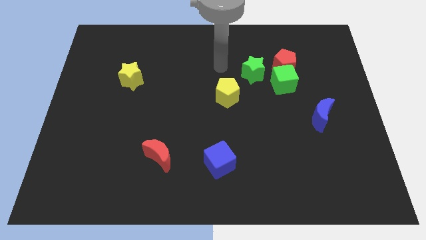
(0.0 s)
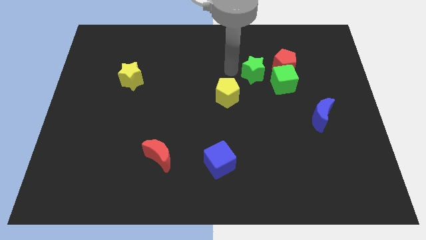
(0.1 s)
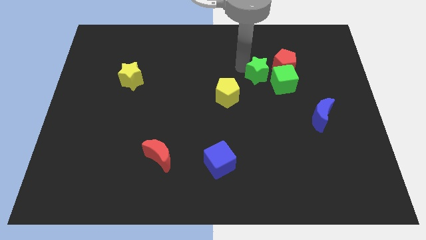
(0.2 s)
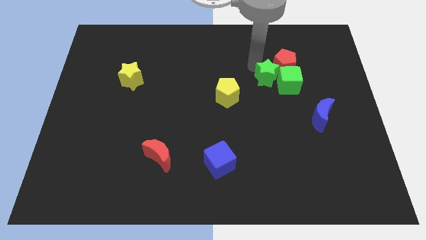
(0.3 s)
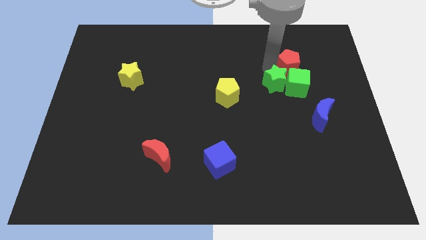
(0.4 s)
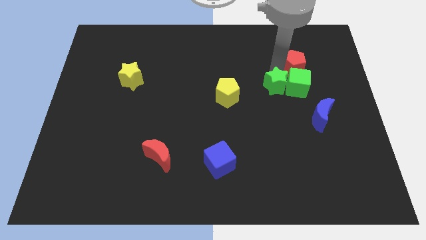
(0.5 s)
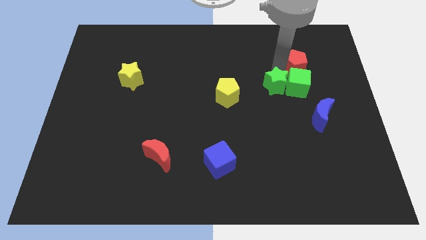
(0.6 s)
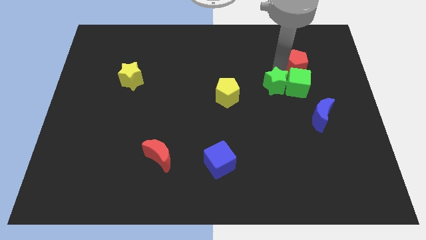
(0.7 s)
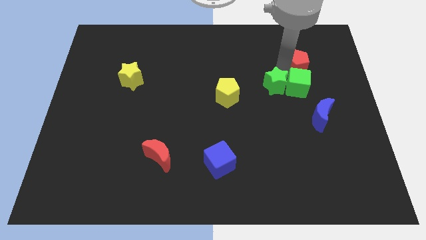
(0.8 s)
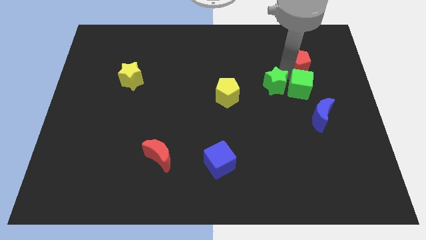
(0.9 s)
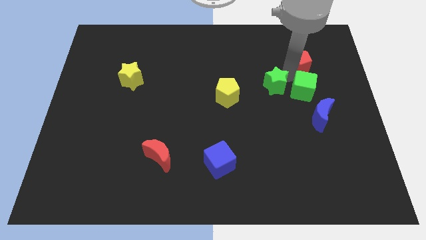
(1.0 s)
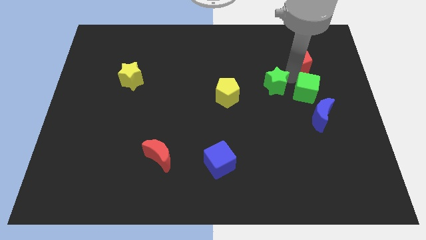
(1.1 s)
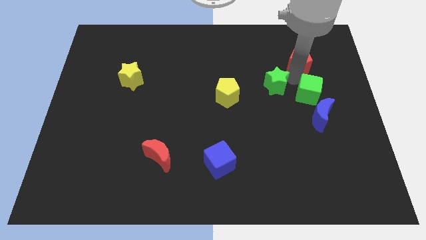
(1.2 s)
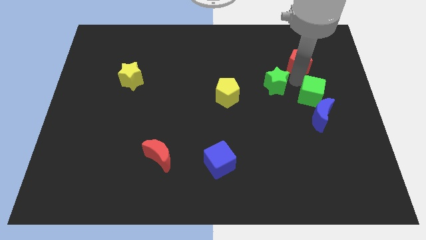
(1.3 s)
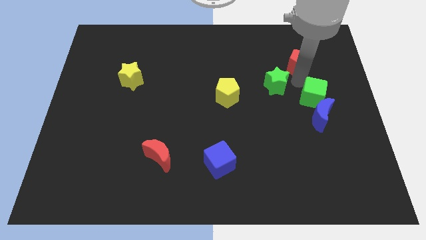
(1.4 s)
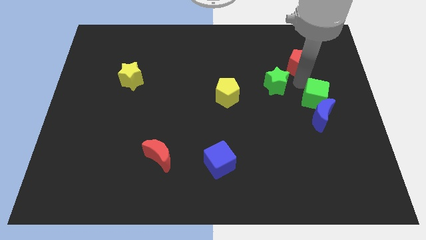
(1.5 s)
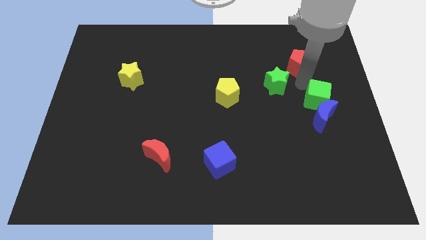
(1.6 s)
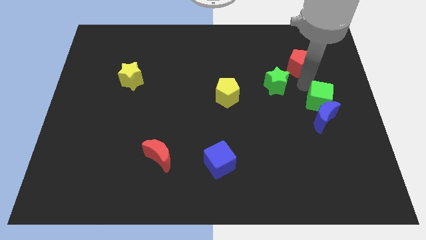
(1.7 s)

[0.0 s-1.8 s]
separate the green cube from the red pentagon and green star

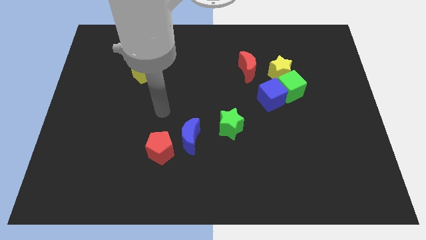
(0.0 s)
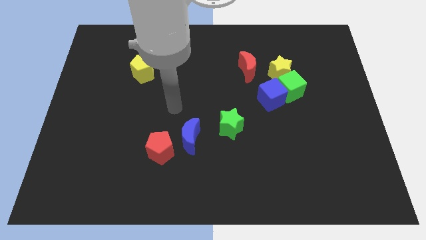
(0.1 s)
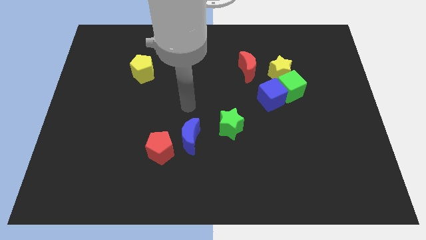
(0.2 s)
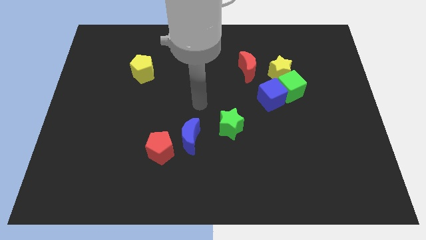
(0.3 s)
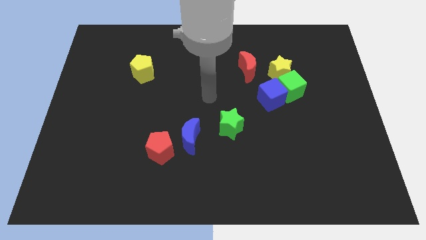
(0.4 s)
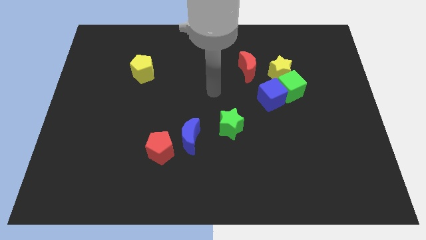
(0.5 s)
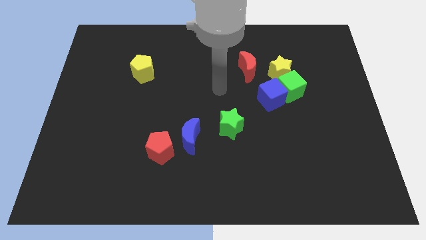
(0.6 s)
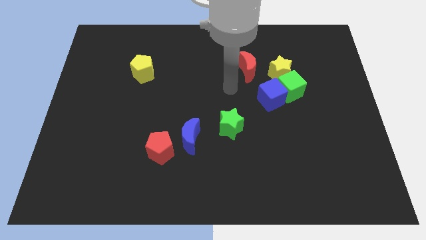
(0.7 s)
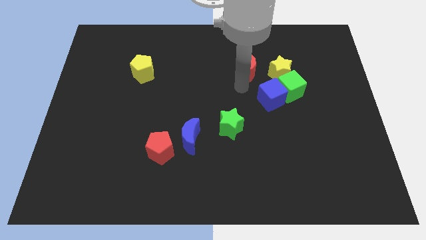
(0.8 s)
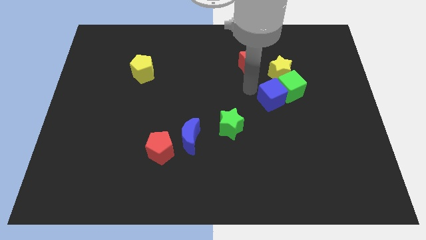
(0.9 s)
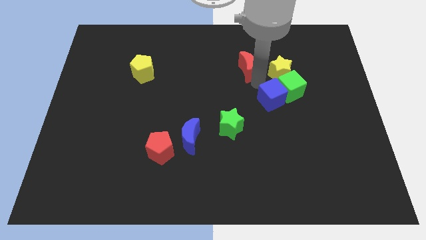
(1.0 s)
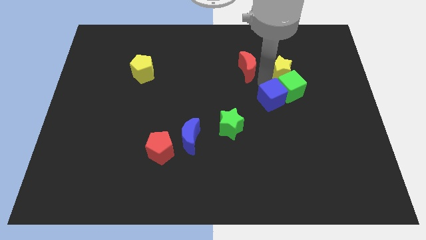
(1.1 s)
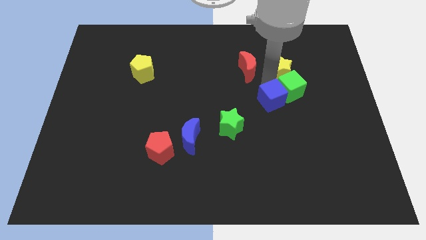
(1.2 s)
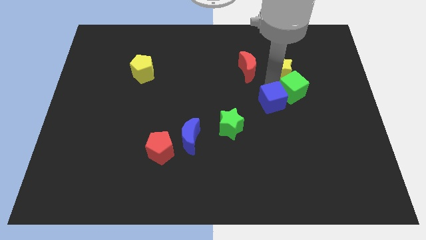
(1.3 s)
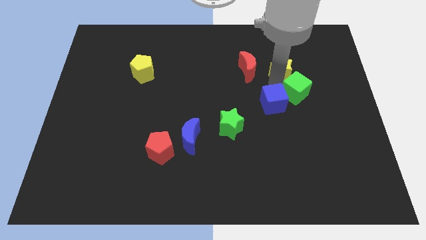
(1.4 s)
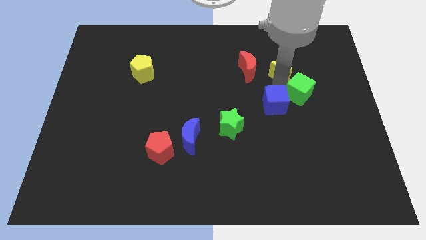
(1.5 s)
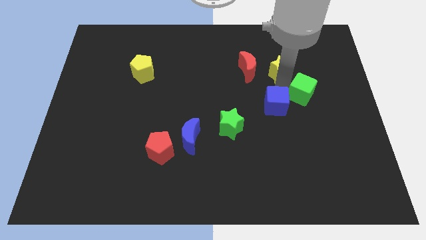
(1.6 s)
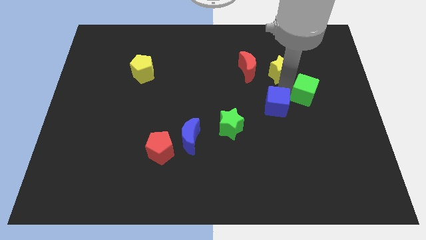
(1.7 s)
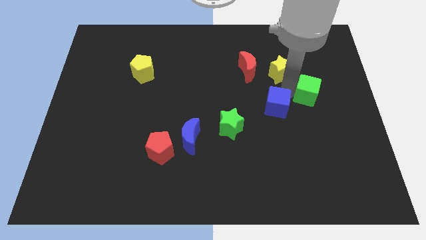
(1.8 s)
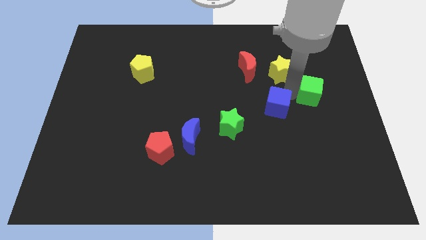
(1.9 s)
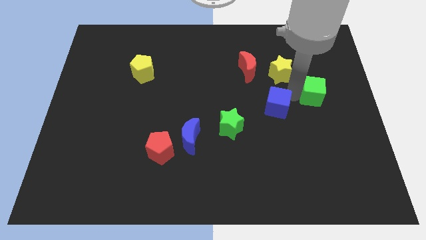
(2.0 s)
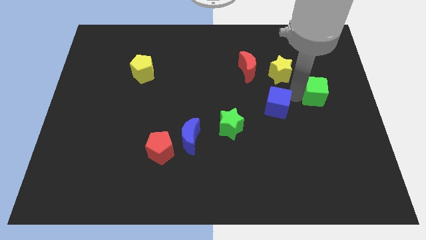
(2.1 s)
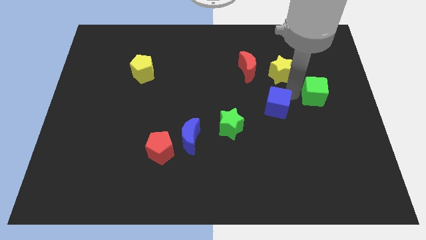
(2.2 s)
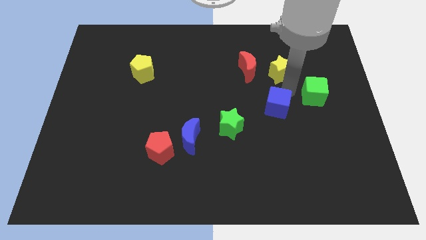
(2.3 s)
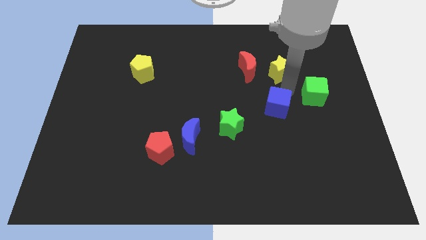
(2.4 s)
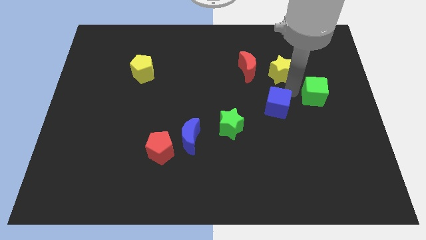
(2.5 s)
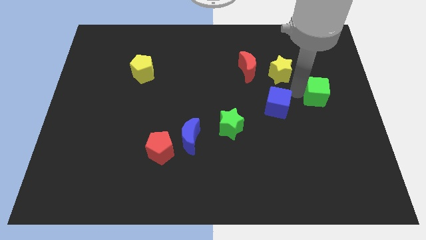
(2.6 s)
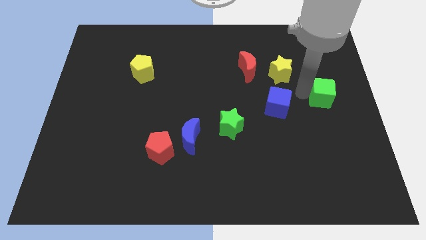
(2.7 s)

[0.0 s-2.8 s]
pull the green cube apart from the blue cube and yellow star

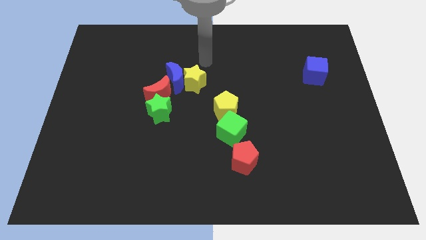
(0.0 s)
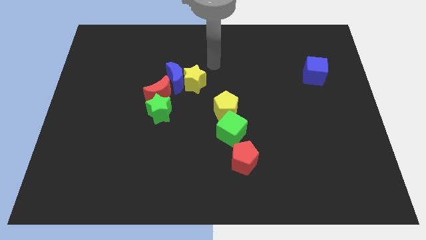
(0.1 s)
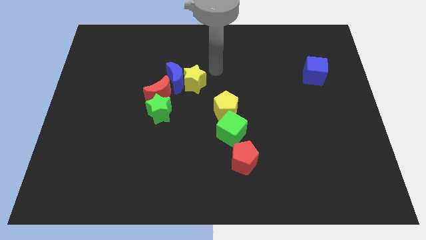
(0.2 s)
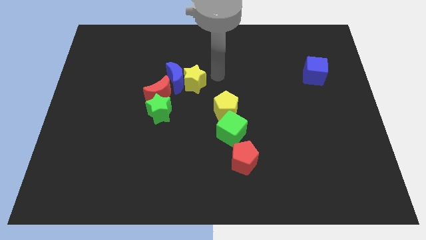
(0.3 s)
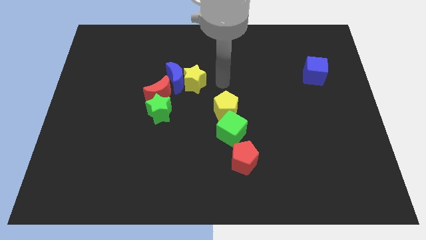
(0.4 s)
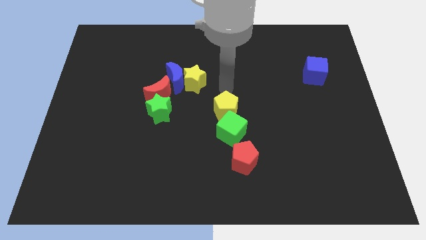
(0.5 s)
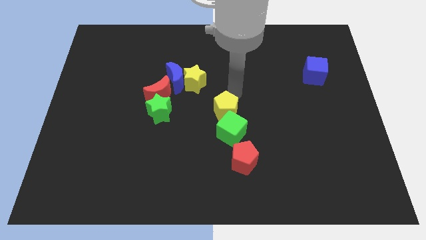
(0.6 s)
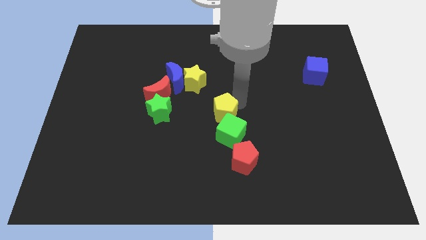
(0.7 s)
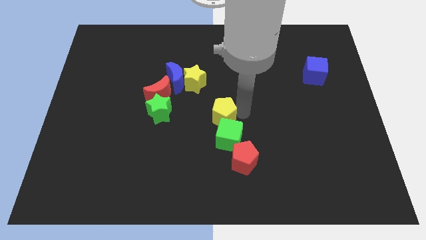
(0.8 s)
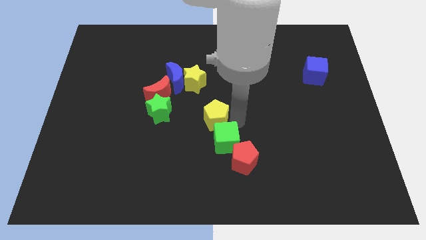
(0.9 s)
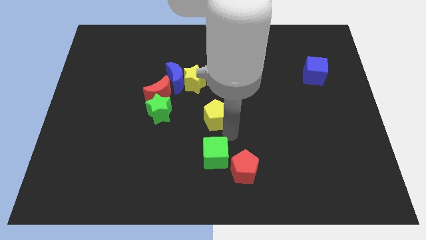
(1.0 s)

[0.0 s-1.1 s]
move the yellow pentagon away from the green cube

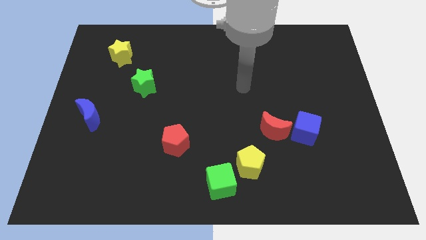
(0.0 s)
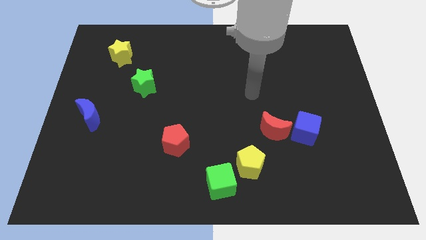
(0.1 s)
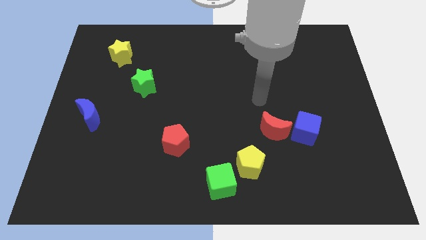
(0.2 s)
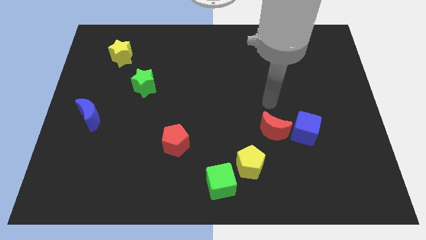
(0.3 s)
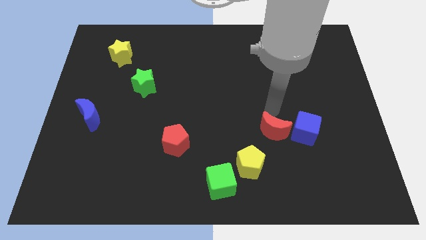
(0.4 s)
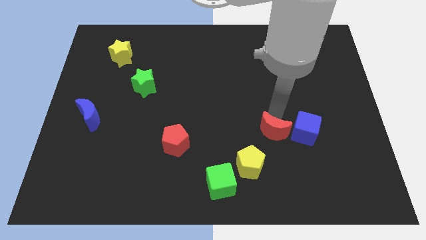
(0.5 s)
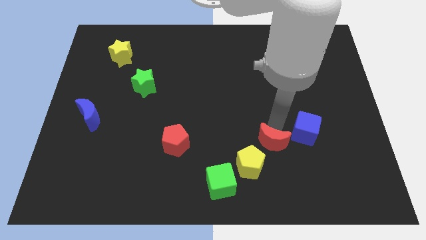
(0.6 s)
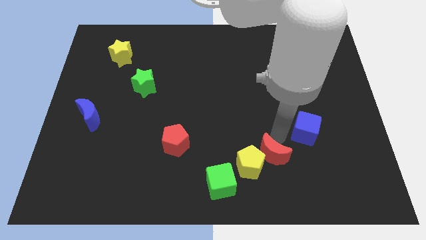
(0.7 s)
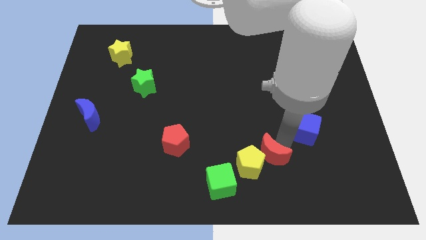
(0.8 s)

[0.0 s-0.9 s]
move the blue cube away from the red moon

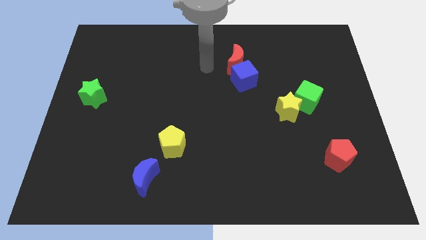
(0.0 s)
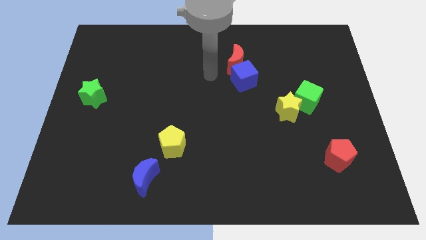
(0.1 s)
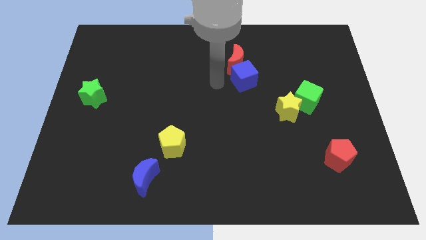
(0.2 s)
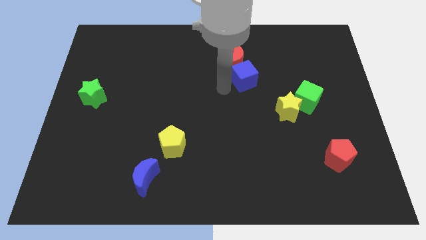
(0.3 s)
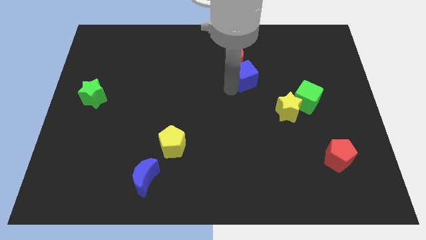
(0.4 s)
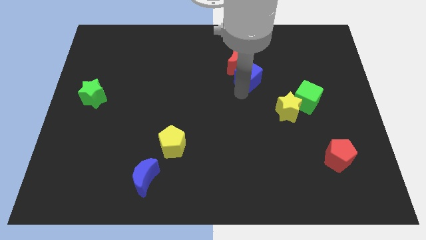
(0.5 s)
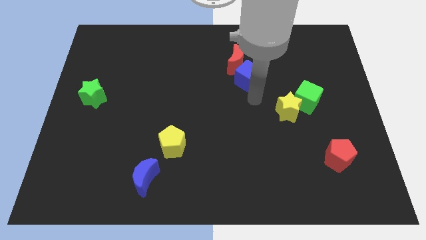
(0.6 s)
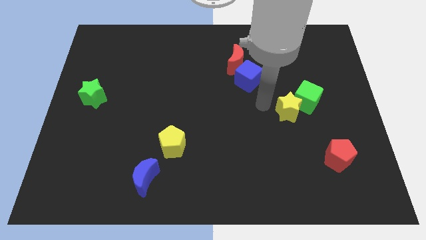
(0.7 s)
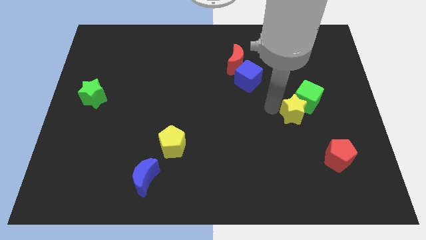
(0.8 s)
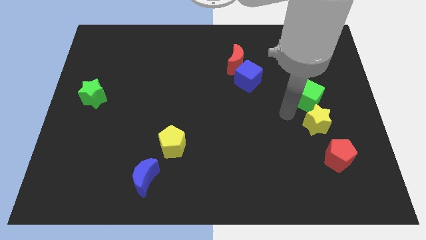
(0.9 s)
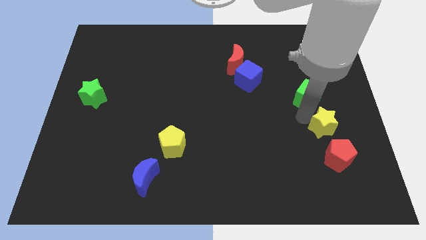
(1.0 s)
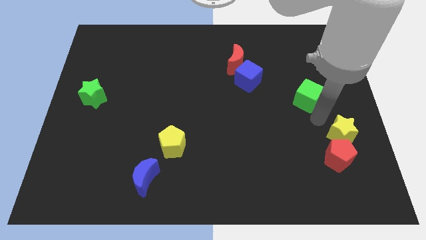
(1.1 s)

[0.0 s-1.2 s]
separate the green cube from the yellow star

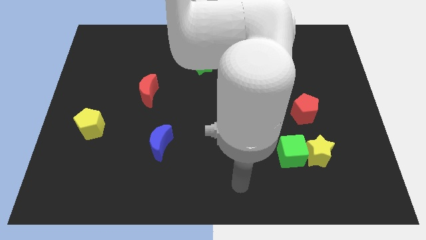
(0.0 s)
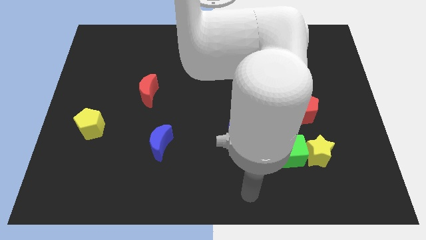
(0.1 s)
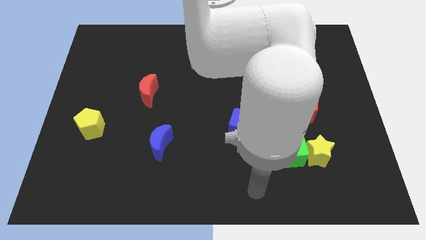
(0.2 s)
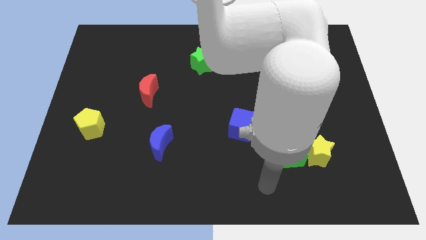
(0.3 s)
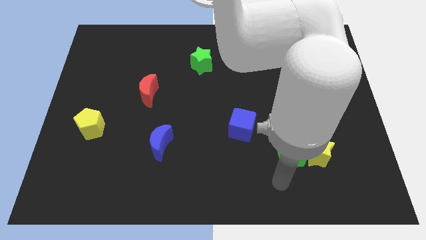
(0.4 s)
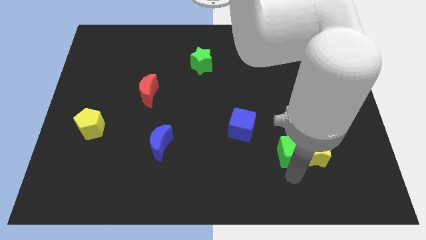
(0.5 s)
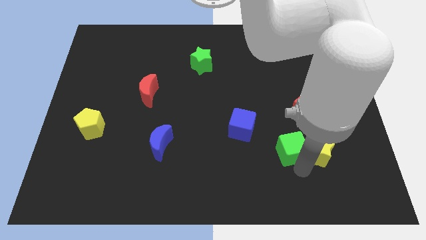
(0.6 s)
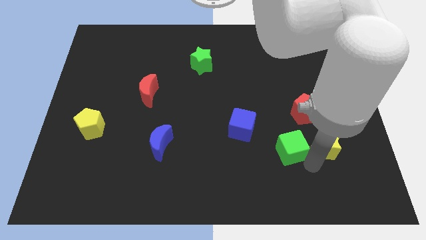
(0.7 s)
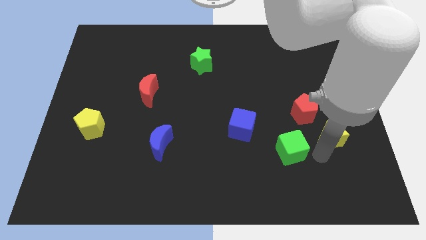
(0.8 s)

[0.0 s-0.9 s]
pull the green cube apart from the yellow star

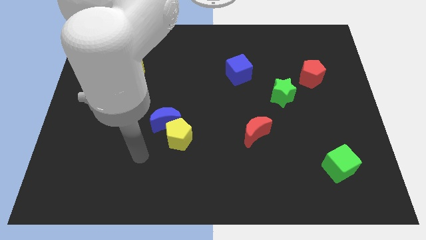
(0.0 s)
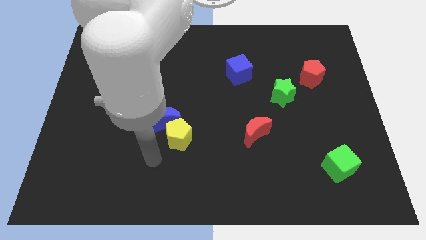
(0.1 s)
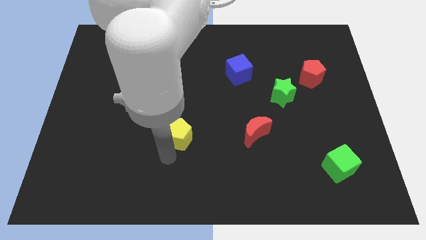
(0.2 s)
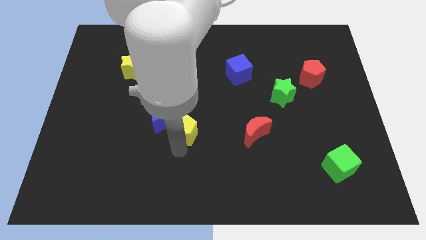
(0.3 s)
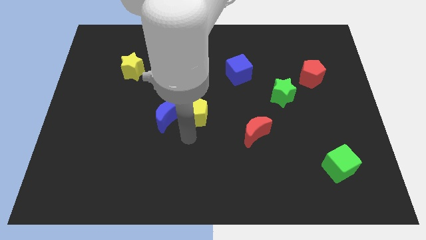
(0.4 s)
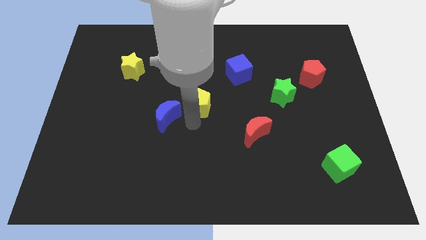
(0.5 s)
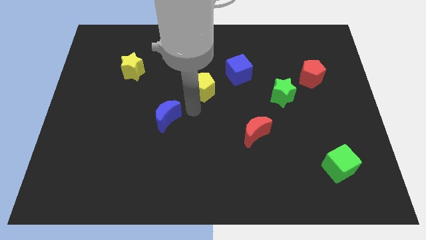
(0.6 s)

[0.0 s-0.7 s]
separate the blue moon from the yellow pentagon
